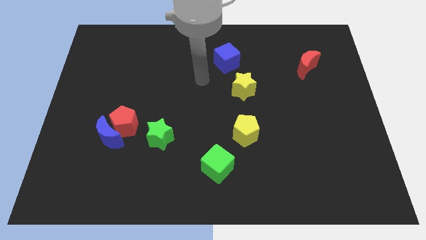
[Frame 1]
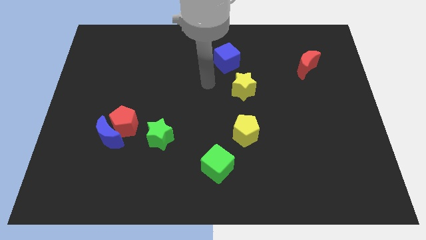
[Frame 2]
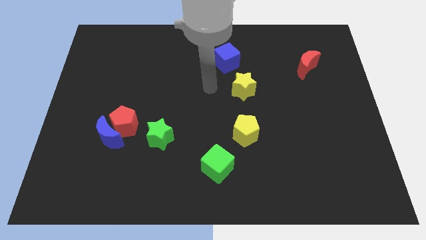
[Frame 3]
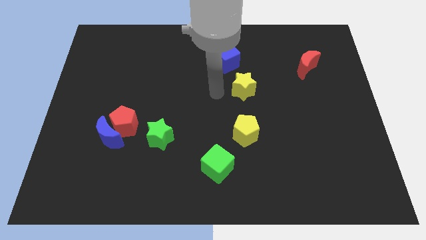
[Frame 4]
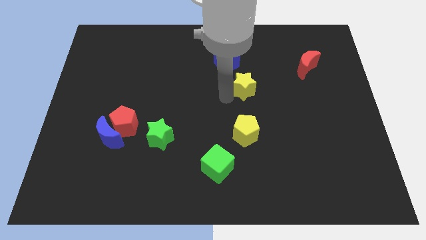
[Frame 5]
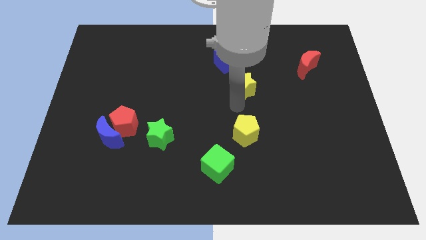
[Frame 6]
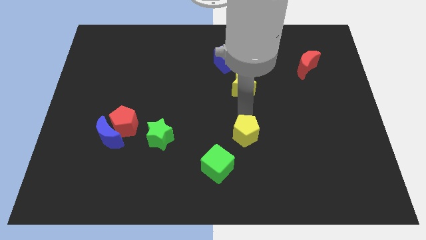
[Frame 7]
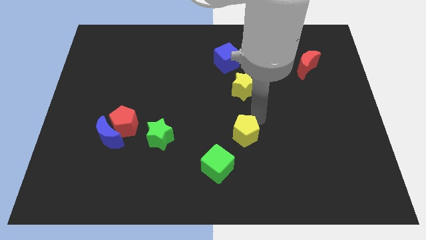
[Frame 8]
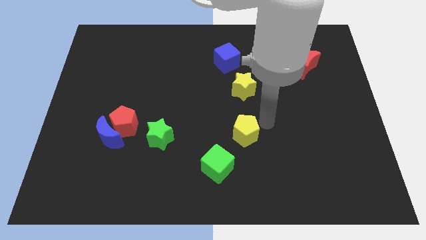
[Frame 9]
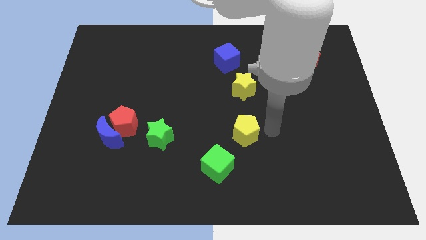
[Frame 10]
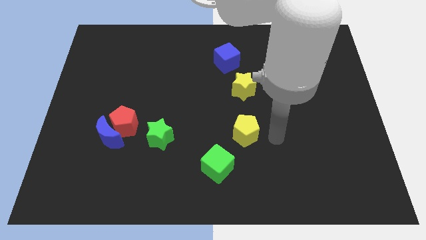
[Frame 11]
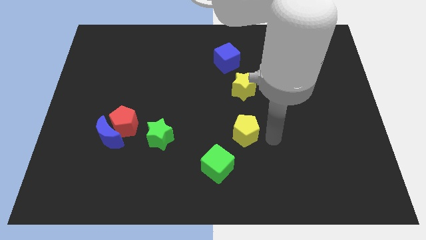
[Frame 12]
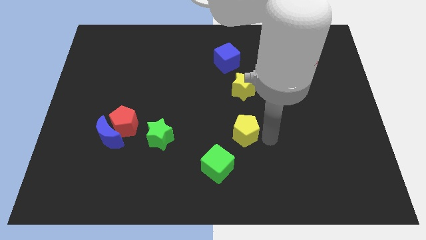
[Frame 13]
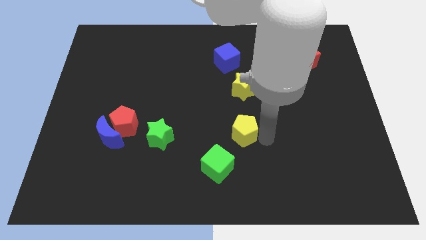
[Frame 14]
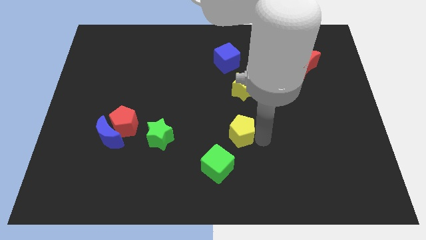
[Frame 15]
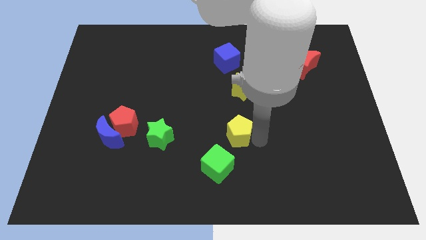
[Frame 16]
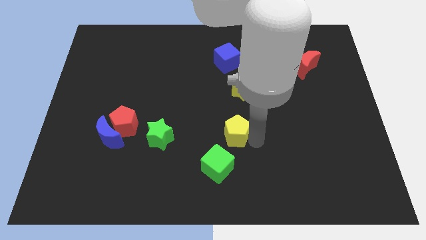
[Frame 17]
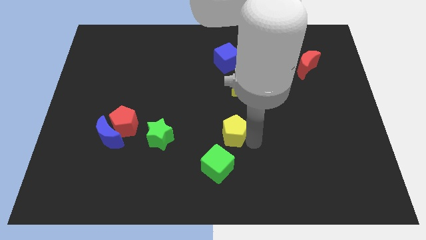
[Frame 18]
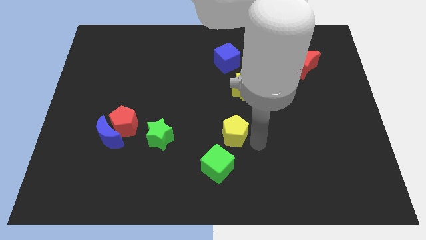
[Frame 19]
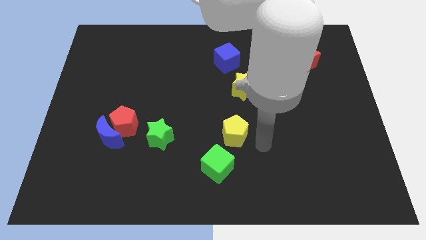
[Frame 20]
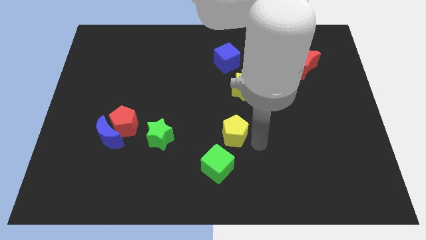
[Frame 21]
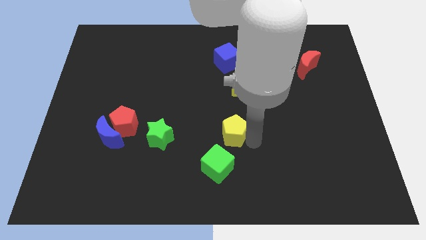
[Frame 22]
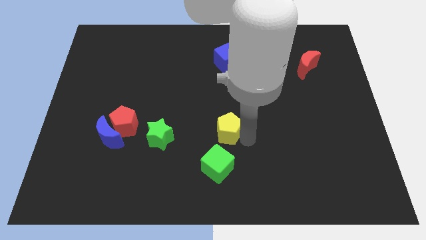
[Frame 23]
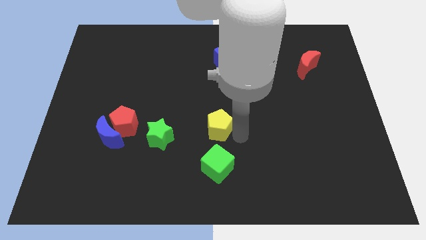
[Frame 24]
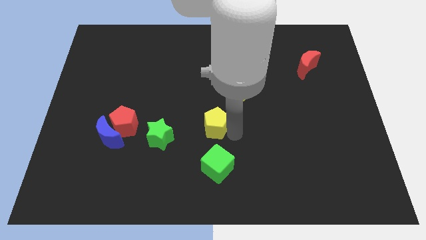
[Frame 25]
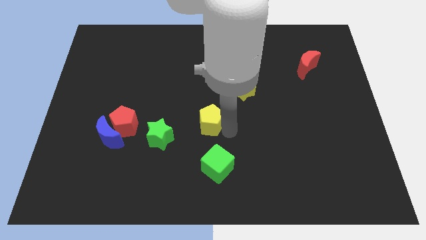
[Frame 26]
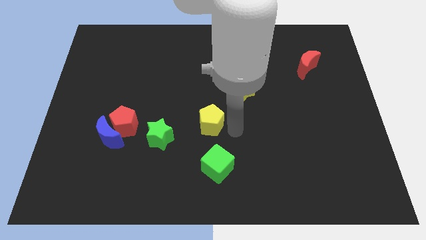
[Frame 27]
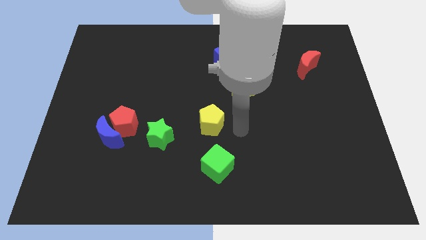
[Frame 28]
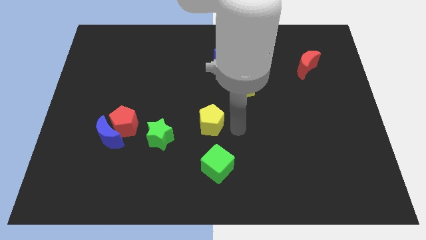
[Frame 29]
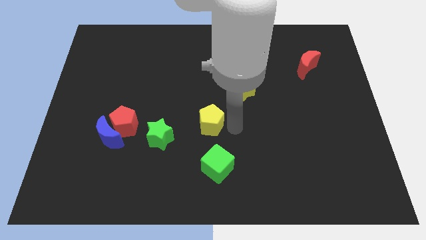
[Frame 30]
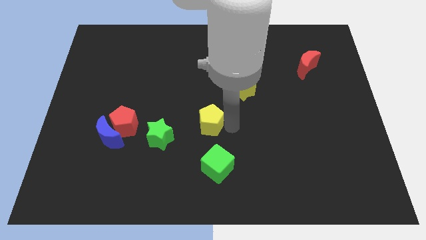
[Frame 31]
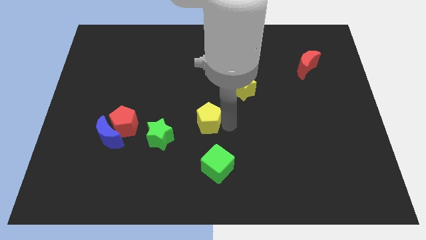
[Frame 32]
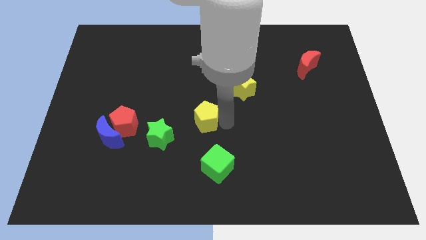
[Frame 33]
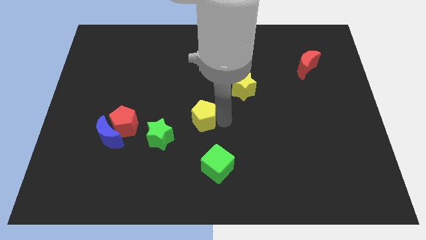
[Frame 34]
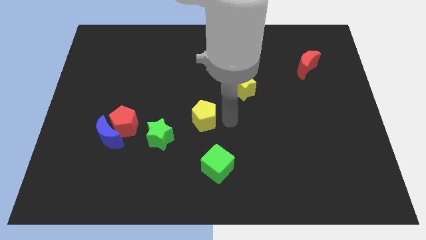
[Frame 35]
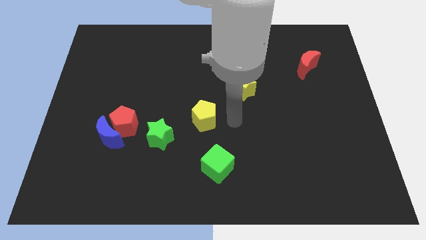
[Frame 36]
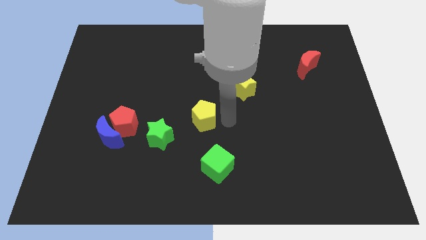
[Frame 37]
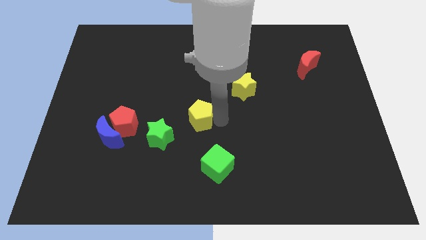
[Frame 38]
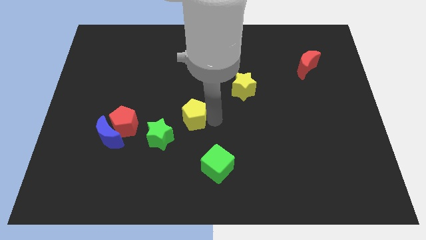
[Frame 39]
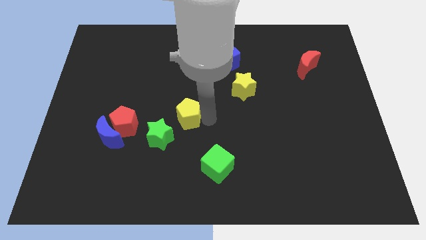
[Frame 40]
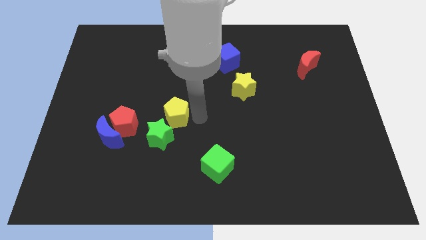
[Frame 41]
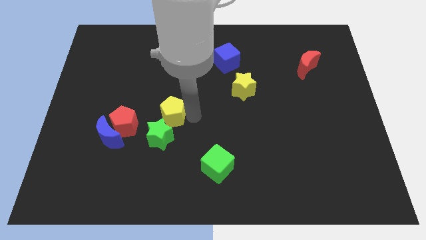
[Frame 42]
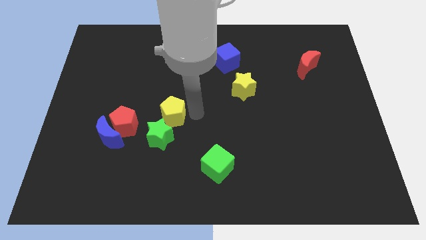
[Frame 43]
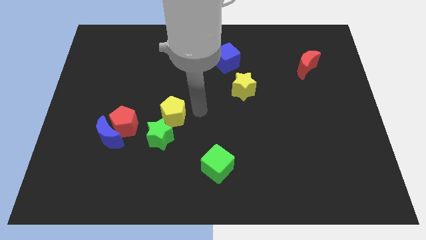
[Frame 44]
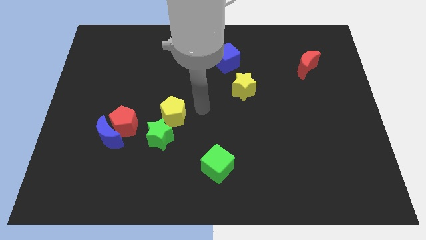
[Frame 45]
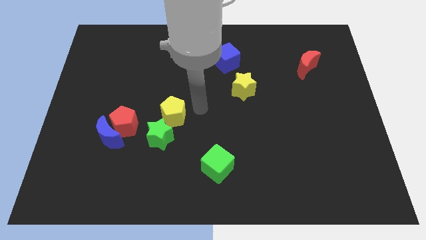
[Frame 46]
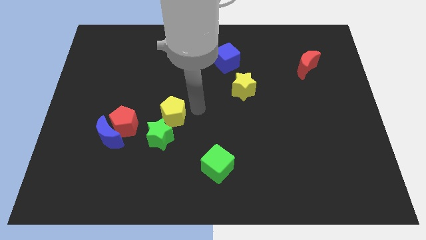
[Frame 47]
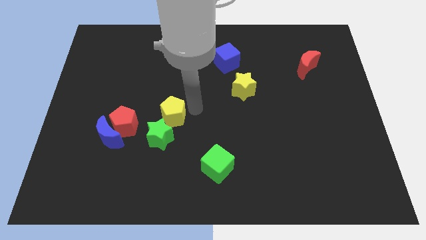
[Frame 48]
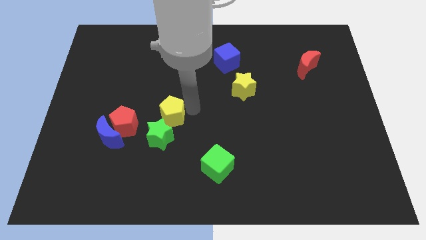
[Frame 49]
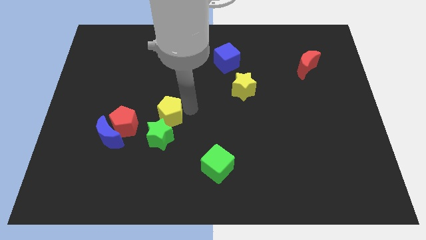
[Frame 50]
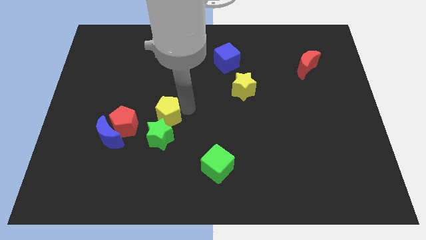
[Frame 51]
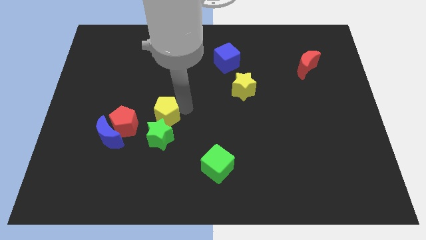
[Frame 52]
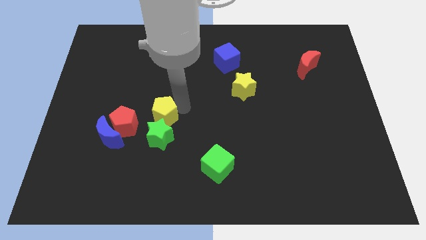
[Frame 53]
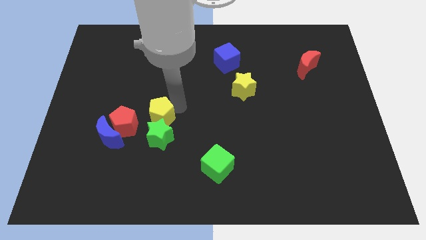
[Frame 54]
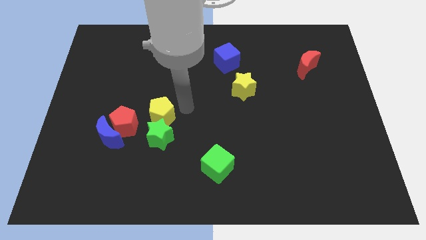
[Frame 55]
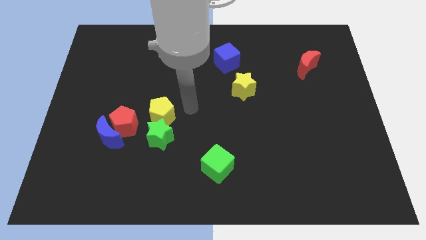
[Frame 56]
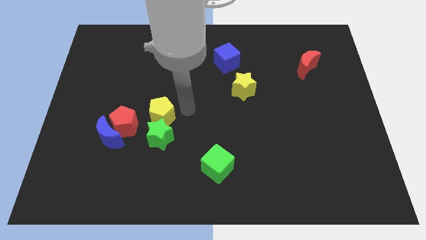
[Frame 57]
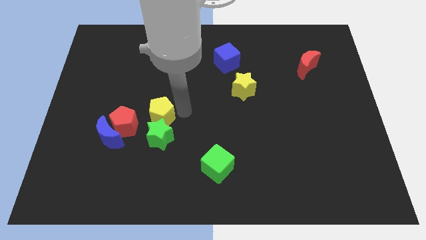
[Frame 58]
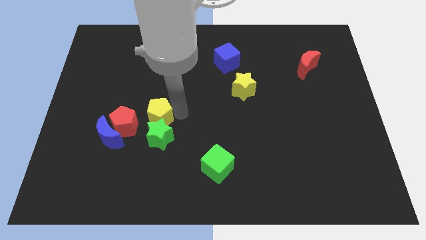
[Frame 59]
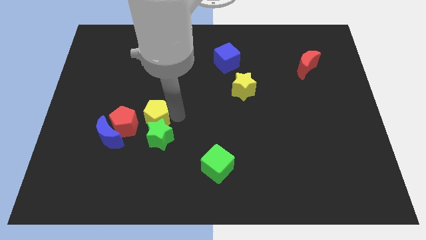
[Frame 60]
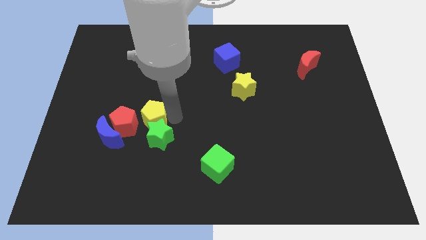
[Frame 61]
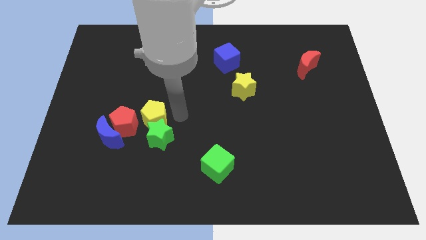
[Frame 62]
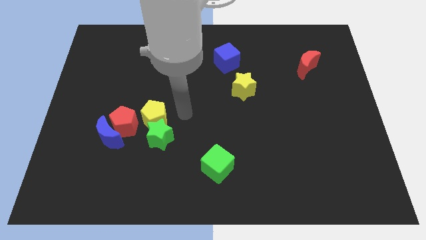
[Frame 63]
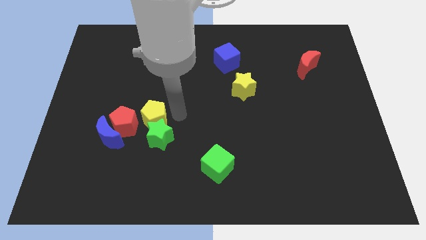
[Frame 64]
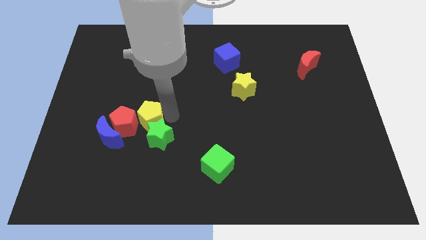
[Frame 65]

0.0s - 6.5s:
move the yellow pentagon to the red pentagon
